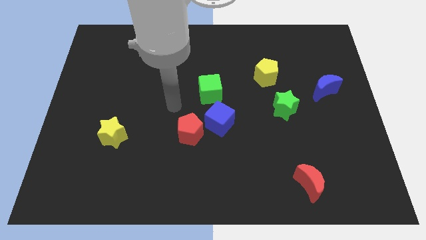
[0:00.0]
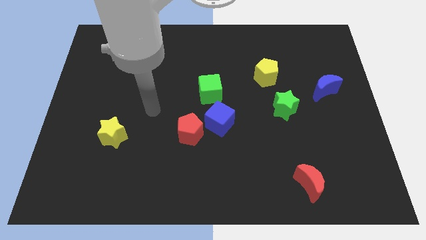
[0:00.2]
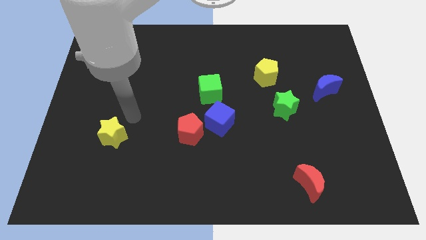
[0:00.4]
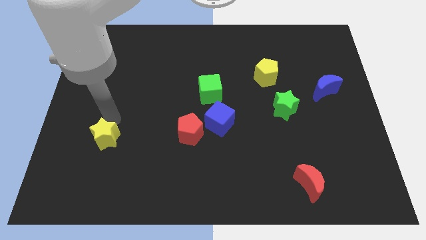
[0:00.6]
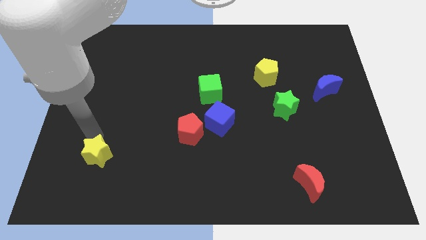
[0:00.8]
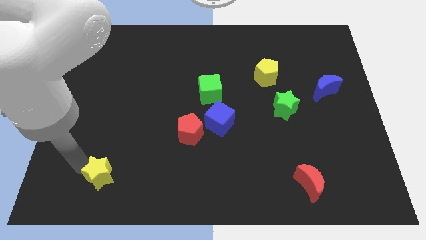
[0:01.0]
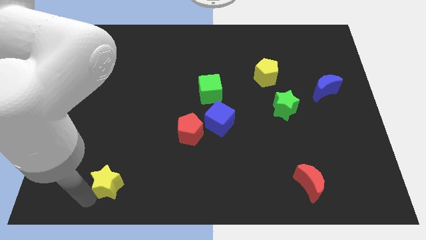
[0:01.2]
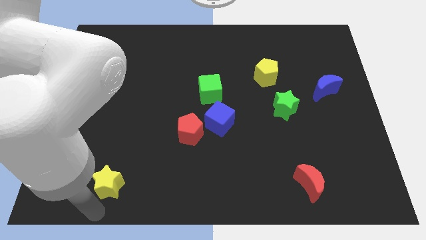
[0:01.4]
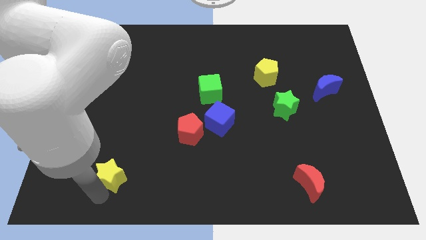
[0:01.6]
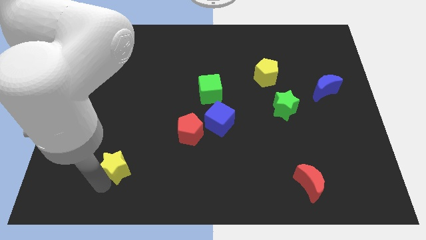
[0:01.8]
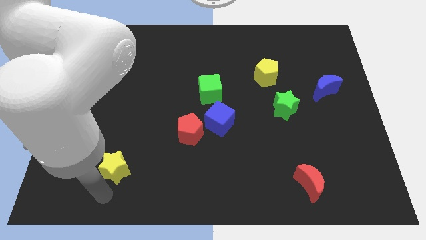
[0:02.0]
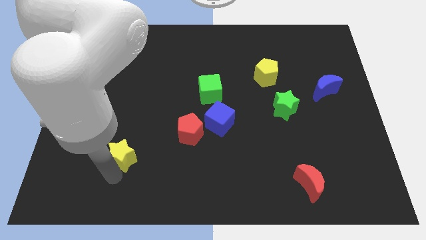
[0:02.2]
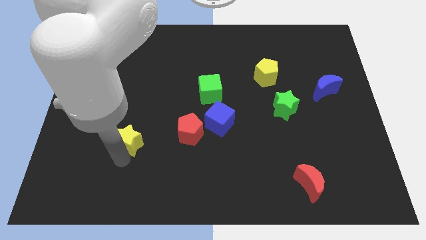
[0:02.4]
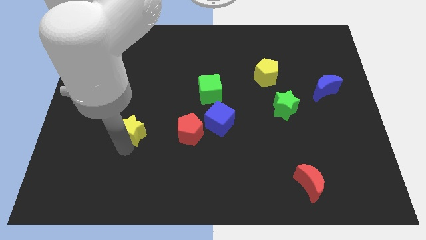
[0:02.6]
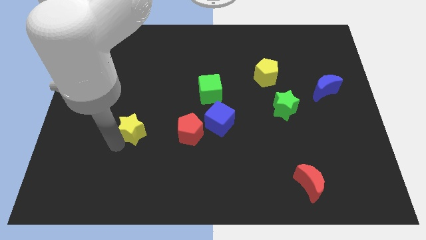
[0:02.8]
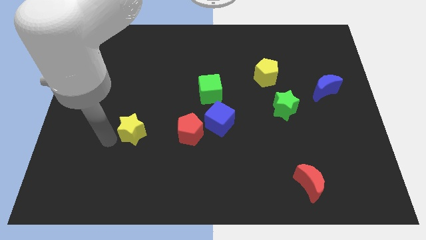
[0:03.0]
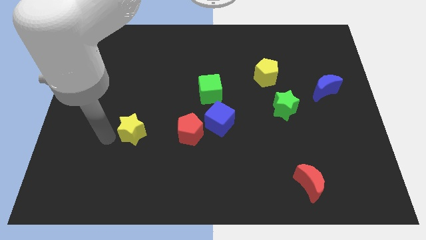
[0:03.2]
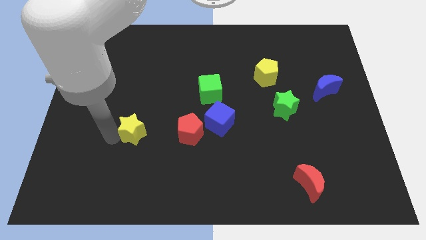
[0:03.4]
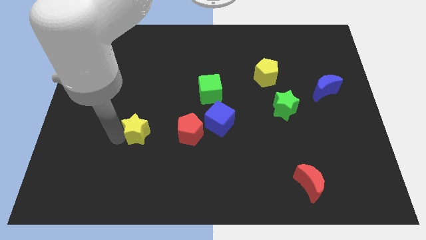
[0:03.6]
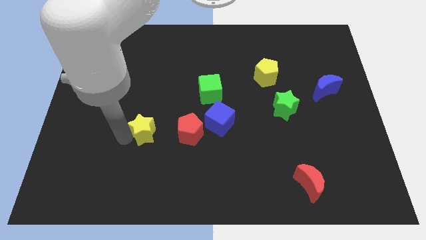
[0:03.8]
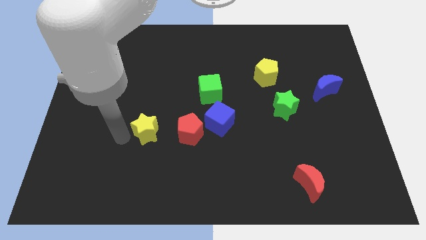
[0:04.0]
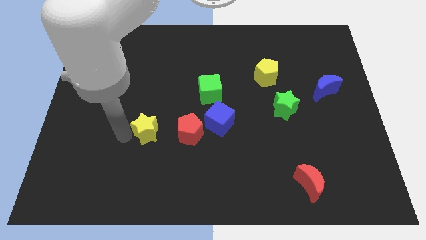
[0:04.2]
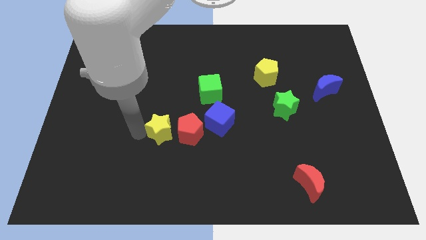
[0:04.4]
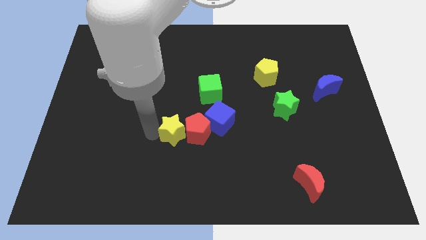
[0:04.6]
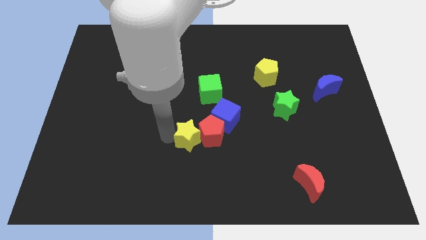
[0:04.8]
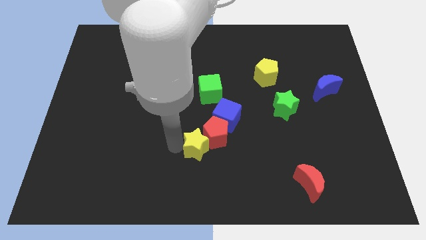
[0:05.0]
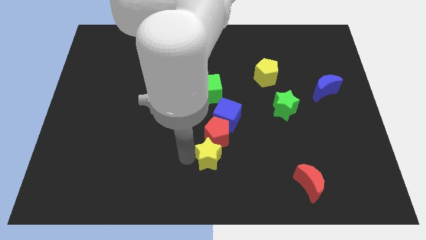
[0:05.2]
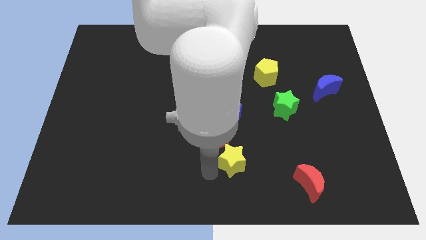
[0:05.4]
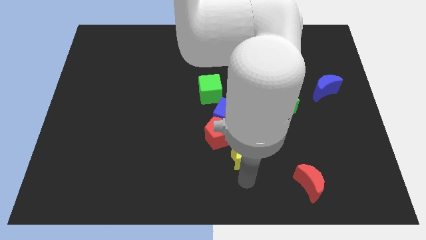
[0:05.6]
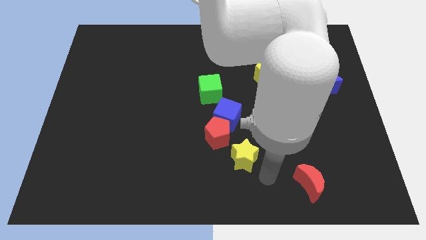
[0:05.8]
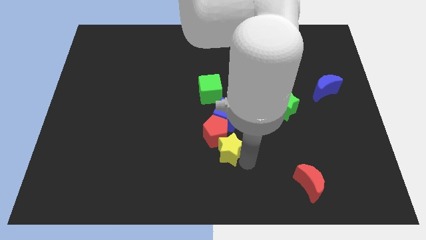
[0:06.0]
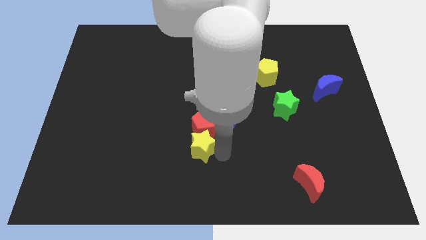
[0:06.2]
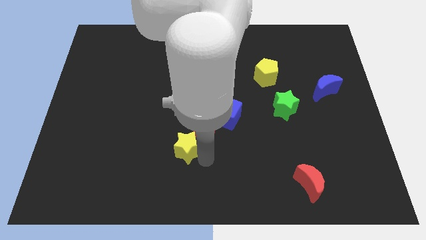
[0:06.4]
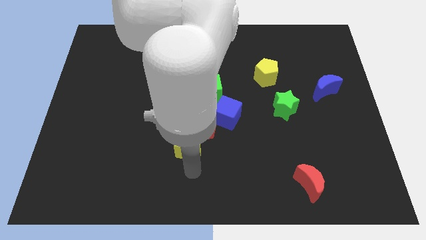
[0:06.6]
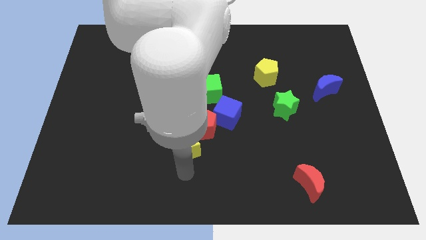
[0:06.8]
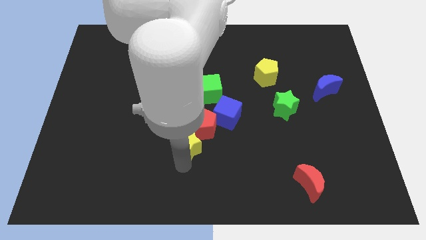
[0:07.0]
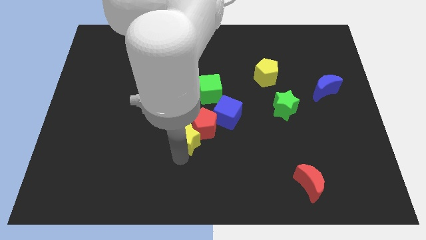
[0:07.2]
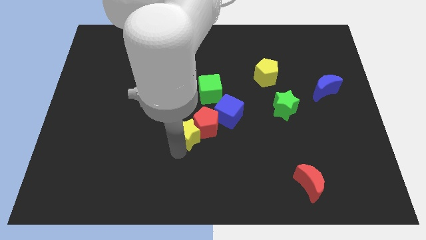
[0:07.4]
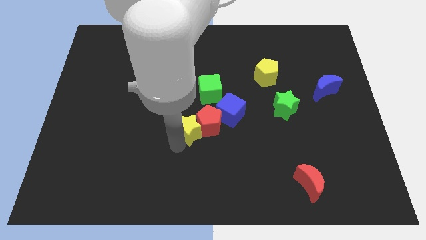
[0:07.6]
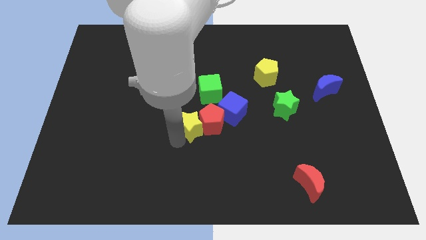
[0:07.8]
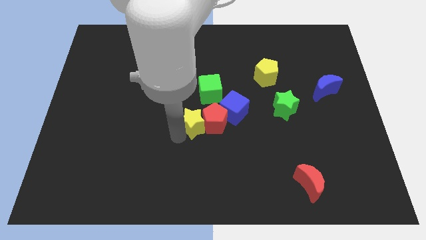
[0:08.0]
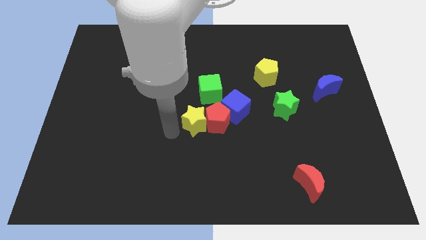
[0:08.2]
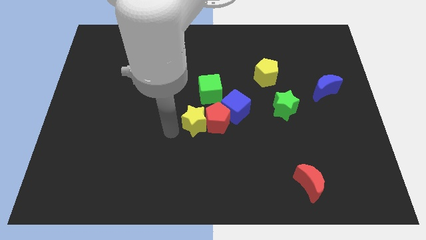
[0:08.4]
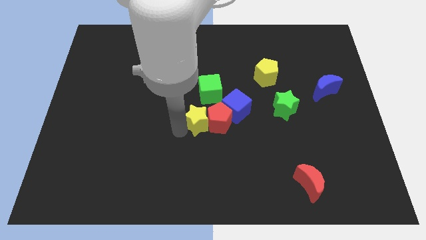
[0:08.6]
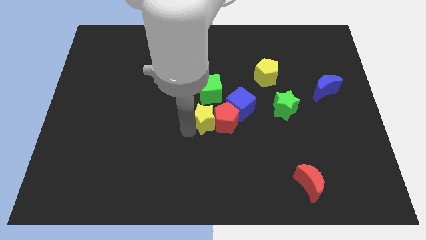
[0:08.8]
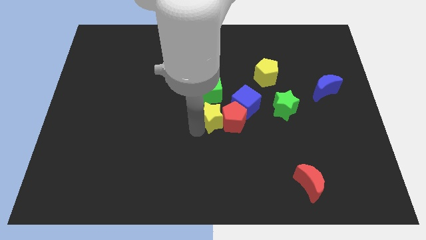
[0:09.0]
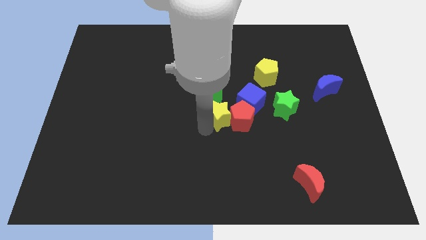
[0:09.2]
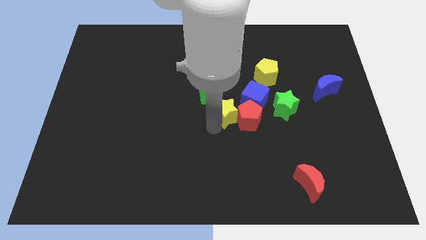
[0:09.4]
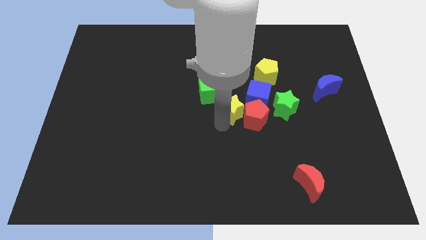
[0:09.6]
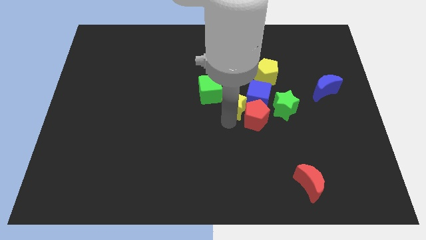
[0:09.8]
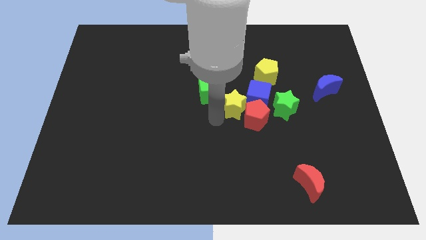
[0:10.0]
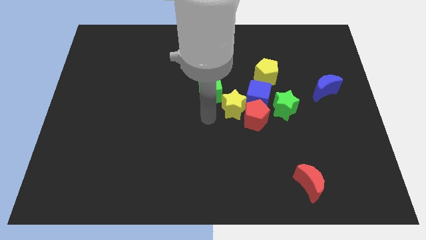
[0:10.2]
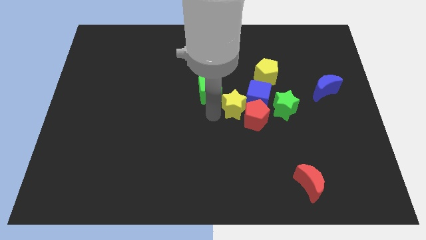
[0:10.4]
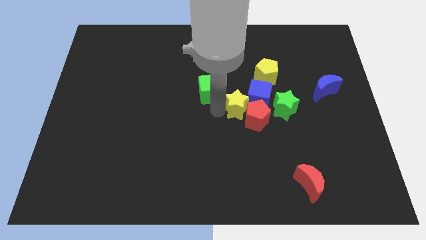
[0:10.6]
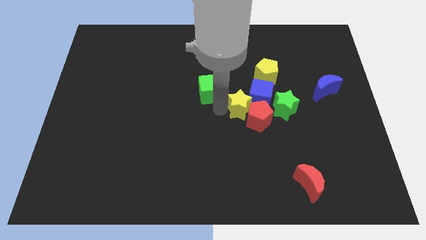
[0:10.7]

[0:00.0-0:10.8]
slide the yellow star close to the blue cube

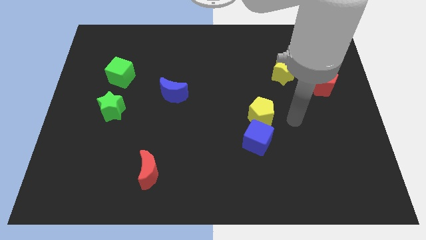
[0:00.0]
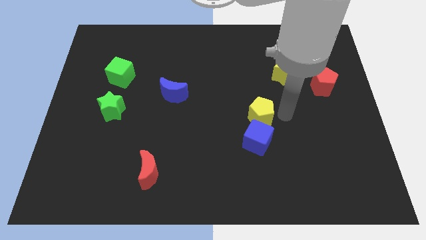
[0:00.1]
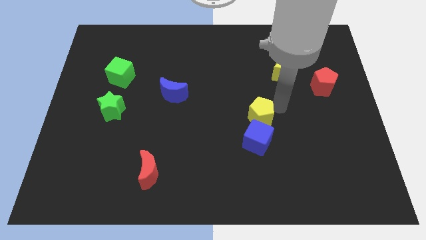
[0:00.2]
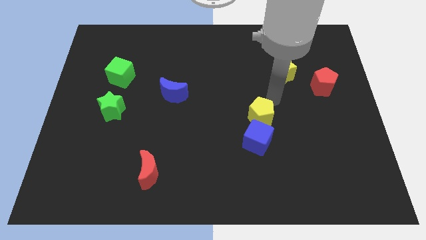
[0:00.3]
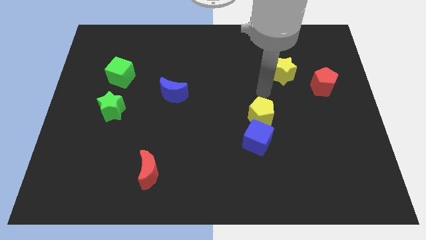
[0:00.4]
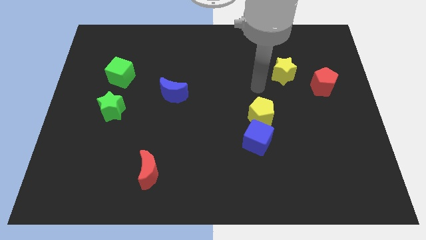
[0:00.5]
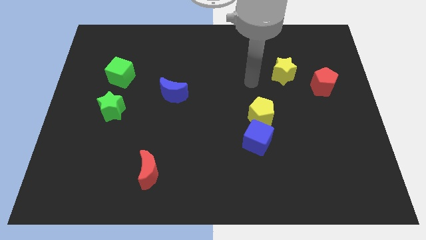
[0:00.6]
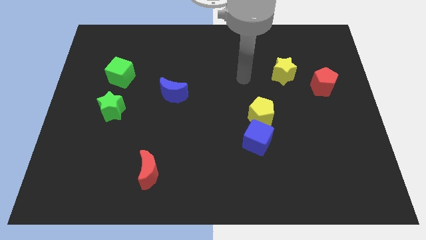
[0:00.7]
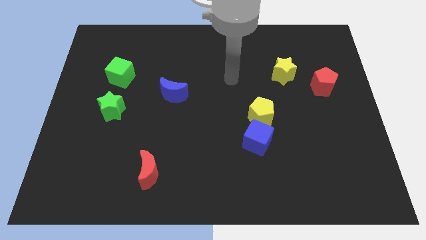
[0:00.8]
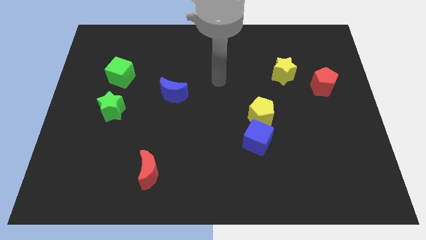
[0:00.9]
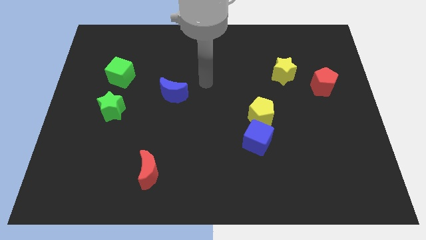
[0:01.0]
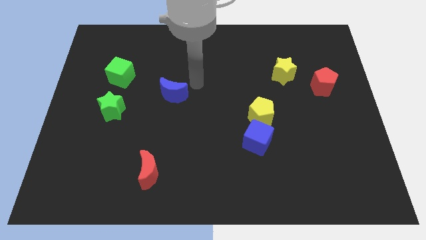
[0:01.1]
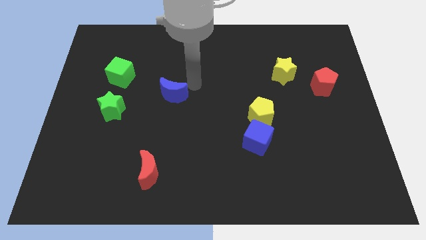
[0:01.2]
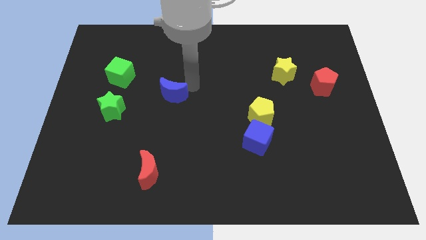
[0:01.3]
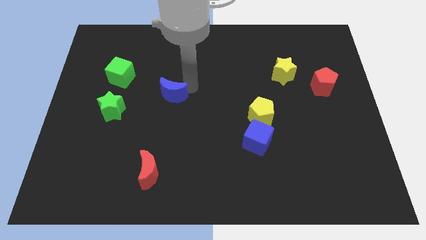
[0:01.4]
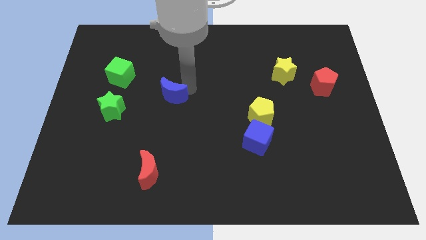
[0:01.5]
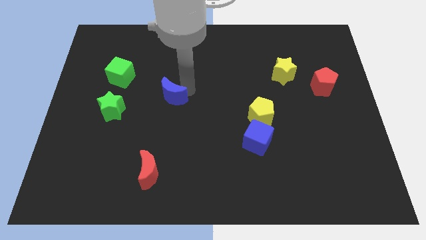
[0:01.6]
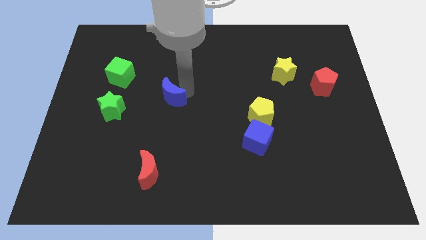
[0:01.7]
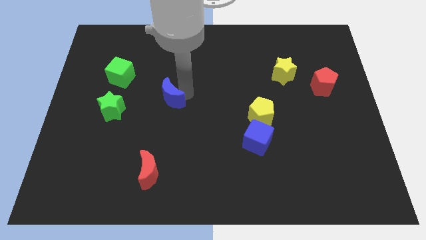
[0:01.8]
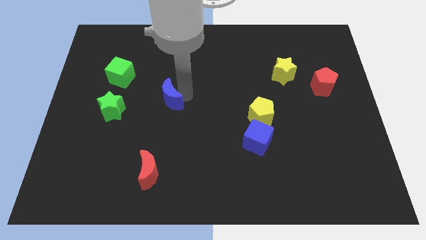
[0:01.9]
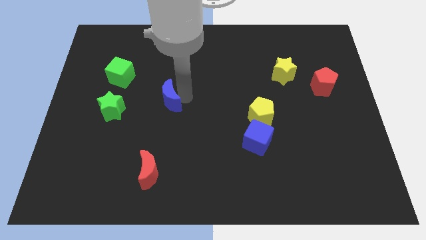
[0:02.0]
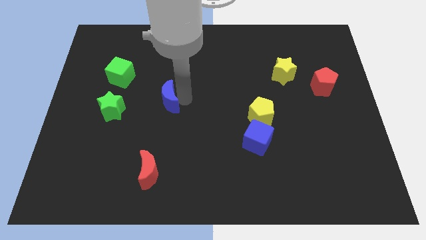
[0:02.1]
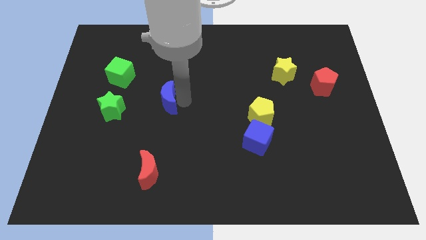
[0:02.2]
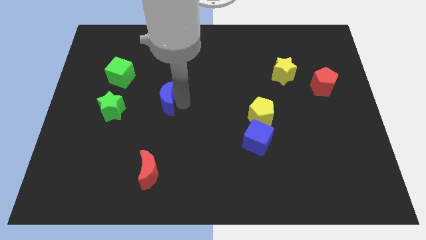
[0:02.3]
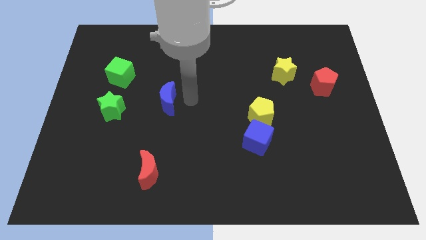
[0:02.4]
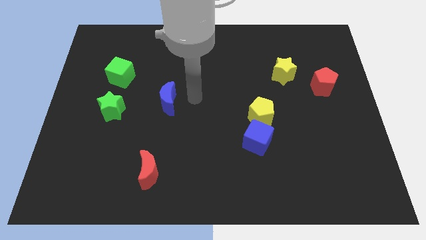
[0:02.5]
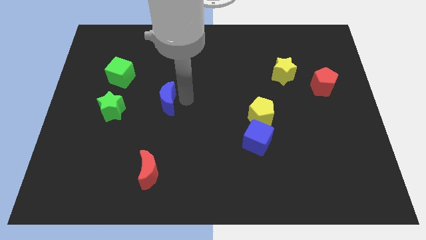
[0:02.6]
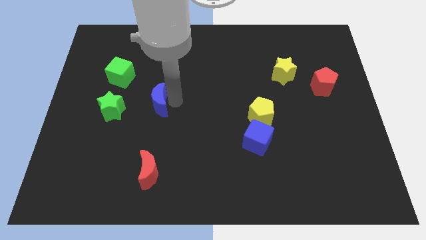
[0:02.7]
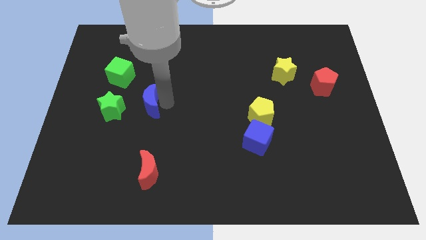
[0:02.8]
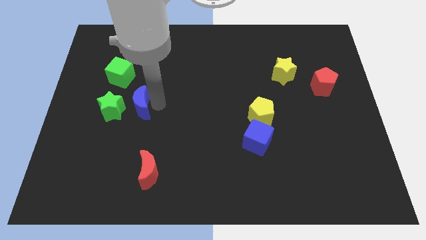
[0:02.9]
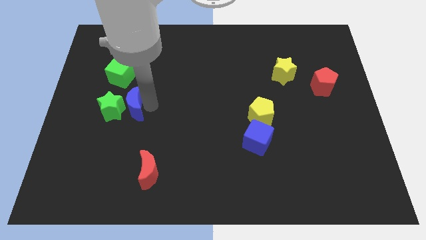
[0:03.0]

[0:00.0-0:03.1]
put the blue moon close to the green star
